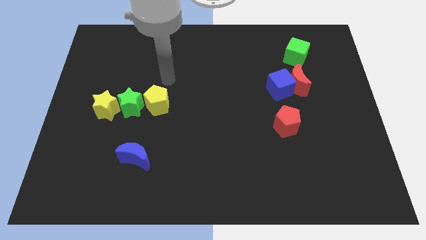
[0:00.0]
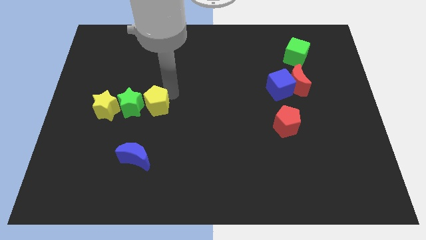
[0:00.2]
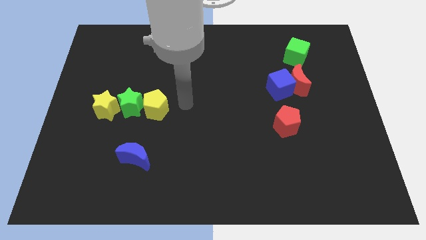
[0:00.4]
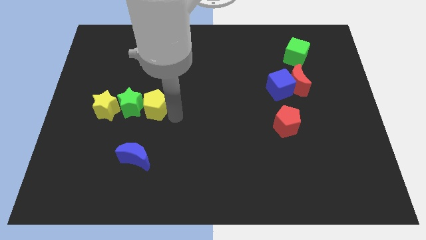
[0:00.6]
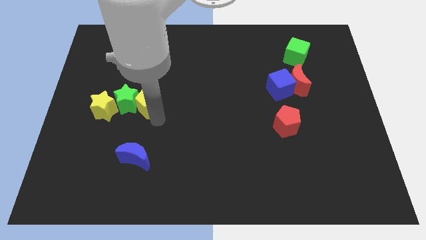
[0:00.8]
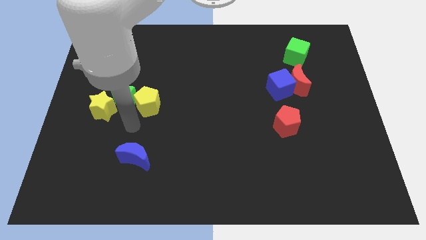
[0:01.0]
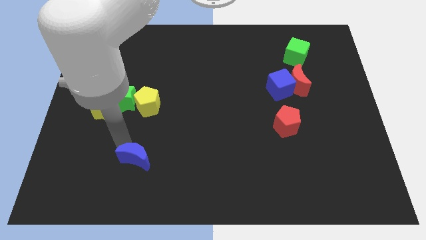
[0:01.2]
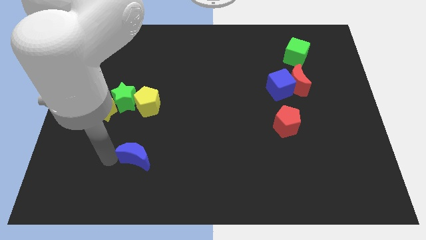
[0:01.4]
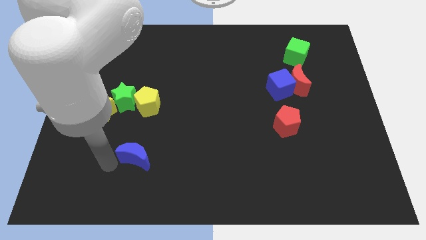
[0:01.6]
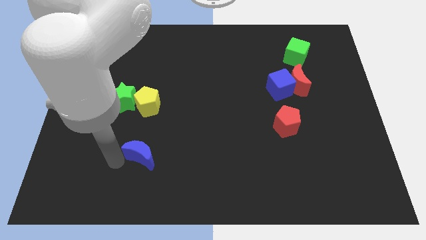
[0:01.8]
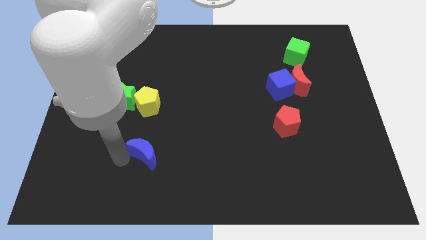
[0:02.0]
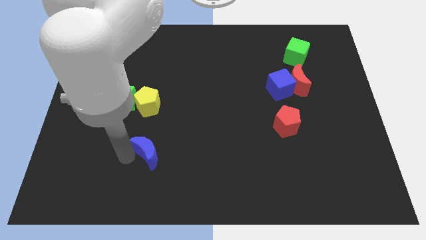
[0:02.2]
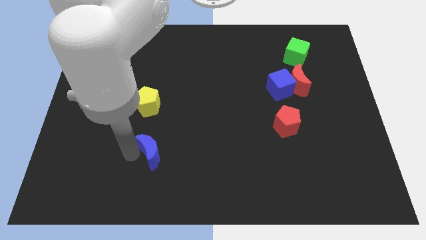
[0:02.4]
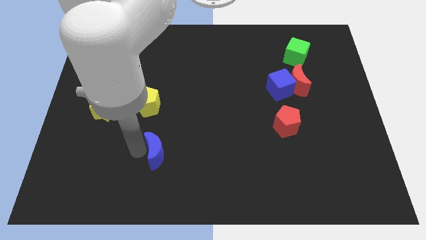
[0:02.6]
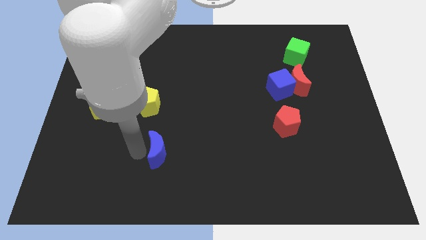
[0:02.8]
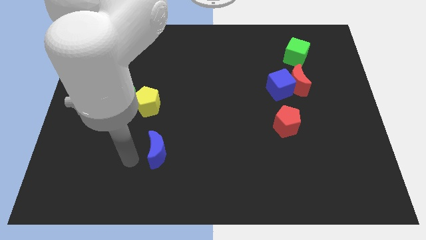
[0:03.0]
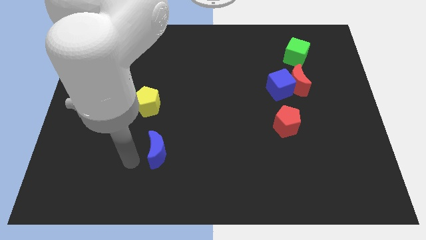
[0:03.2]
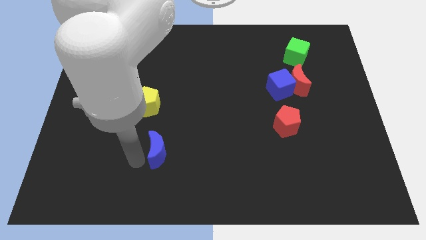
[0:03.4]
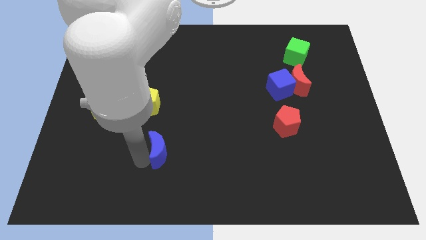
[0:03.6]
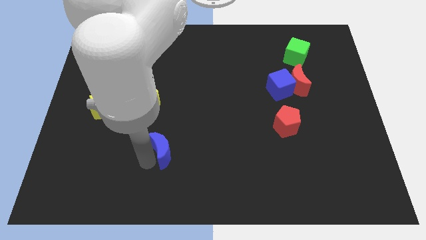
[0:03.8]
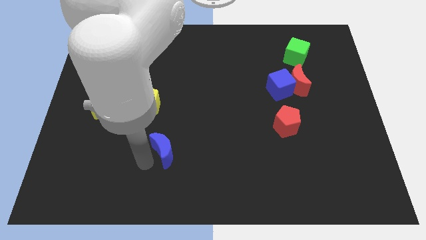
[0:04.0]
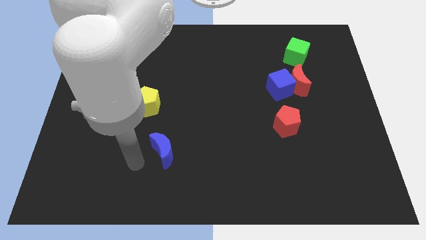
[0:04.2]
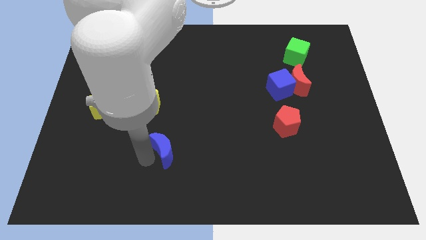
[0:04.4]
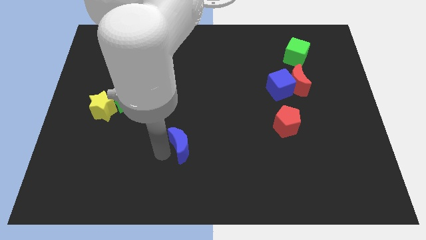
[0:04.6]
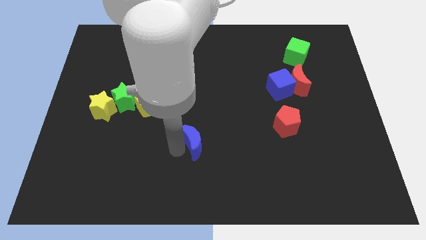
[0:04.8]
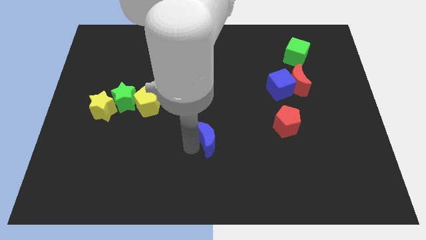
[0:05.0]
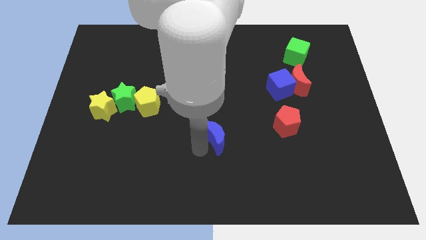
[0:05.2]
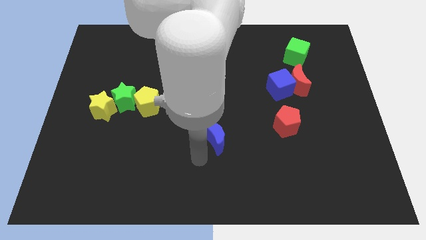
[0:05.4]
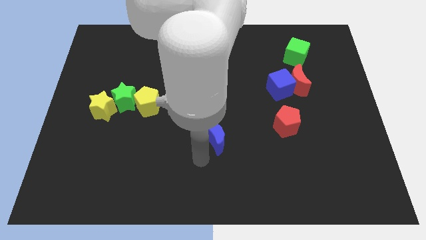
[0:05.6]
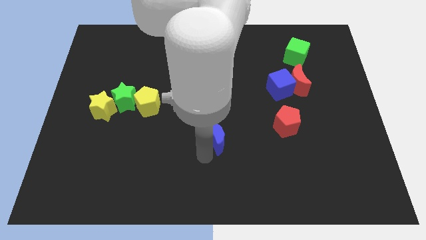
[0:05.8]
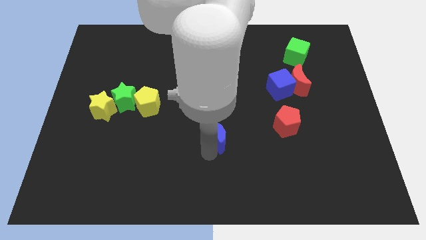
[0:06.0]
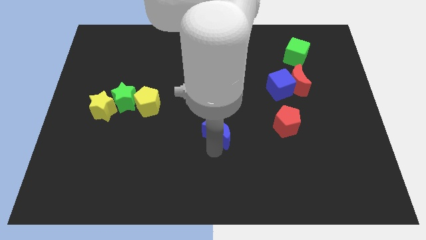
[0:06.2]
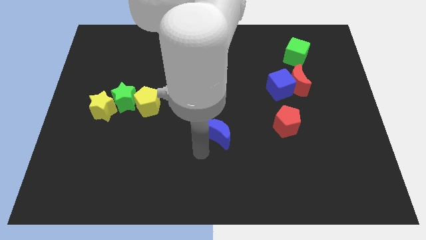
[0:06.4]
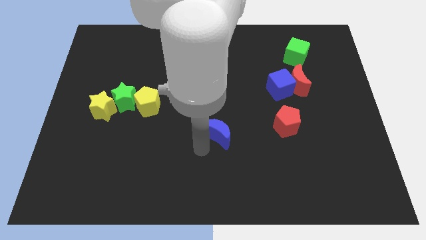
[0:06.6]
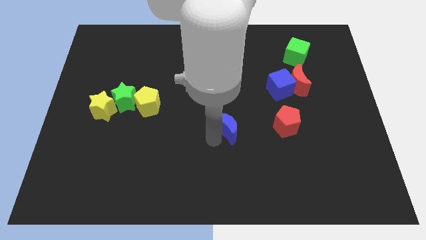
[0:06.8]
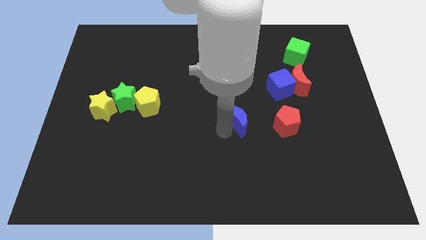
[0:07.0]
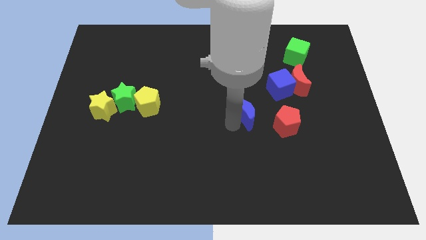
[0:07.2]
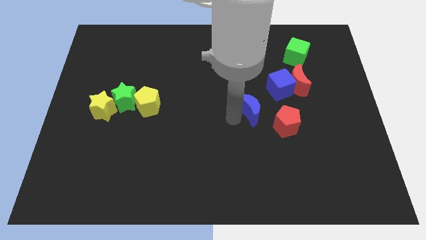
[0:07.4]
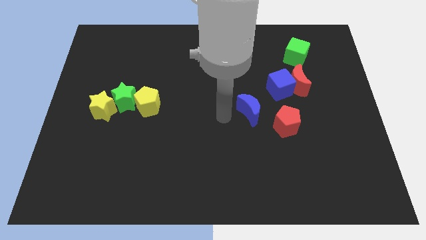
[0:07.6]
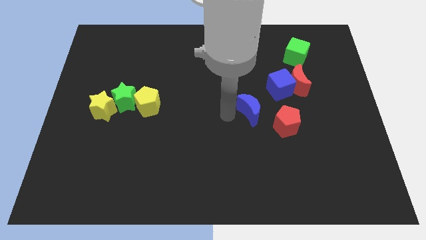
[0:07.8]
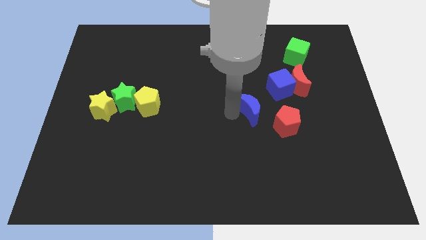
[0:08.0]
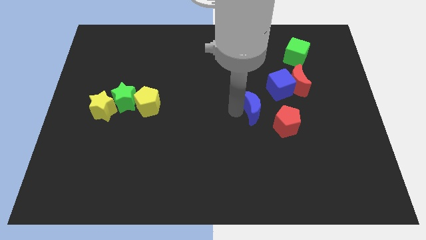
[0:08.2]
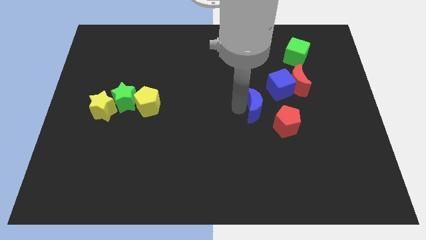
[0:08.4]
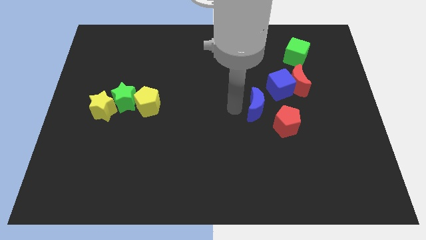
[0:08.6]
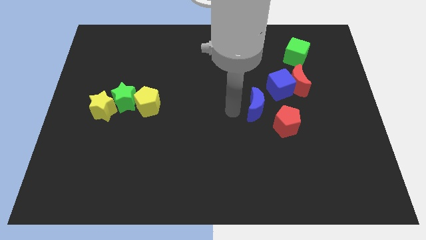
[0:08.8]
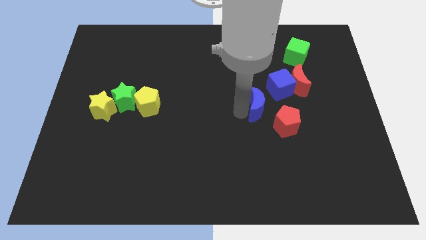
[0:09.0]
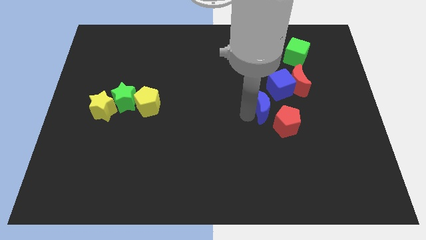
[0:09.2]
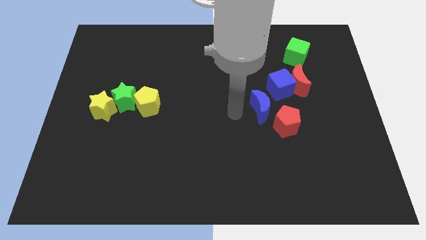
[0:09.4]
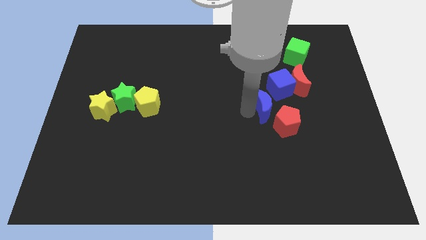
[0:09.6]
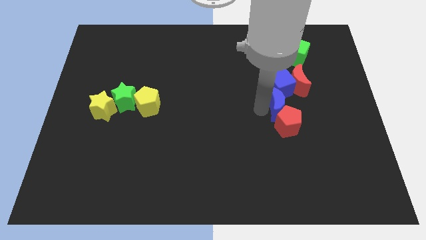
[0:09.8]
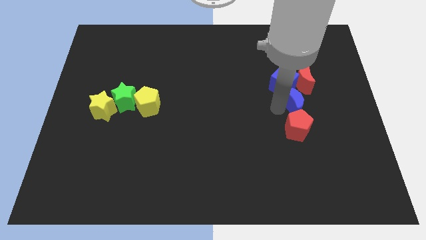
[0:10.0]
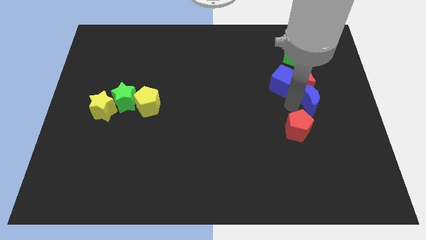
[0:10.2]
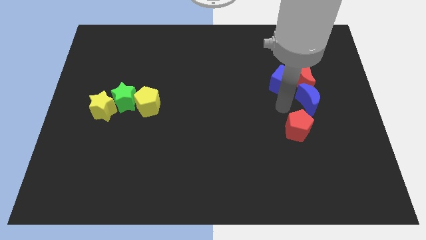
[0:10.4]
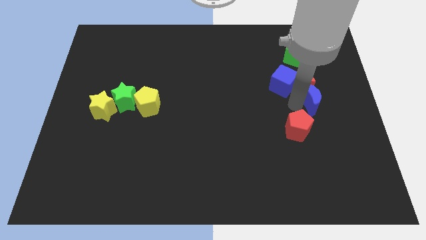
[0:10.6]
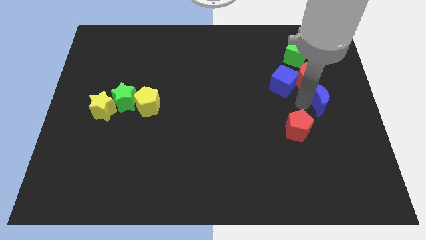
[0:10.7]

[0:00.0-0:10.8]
push the blue moon to the right side

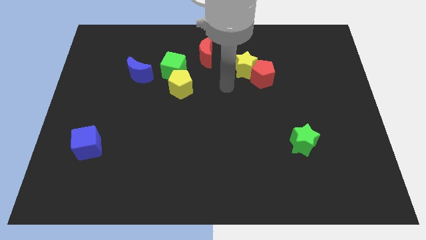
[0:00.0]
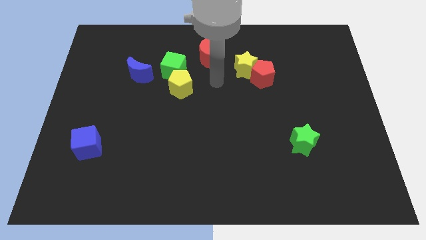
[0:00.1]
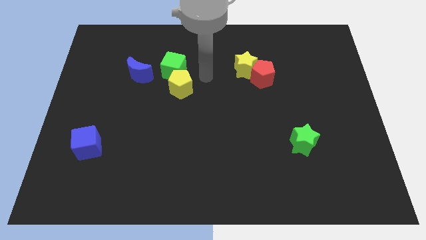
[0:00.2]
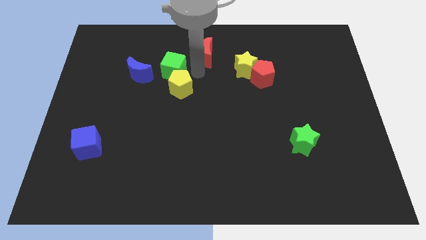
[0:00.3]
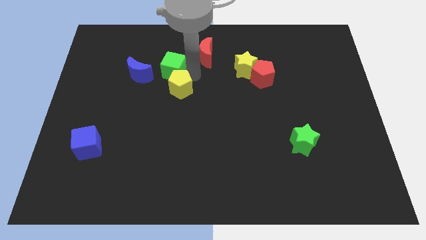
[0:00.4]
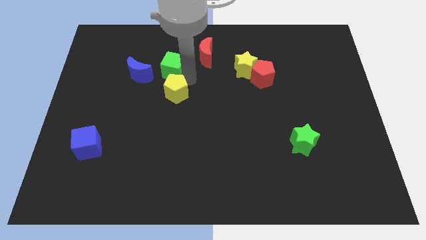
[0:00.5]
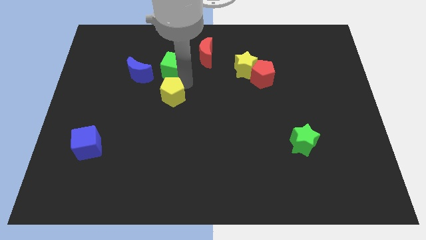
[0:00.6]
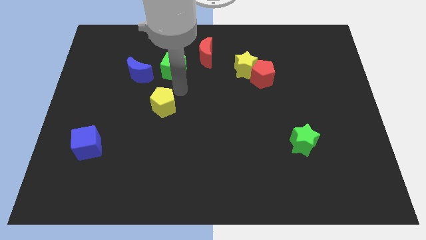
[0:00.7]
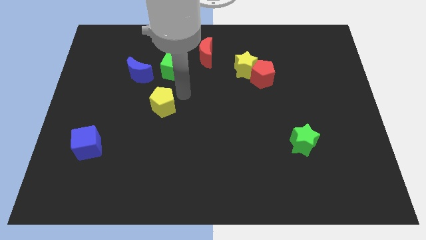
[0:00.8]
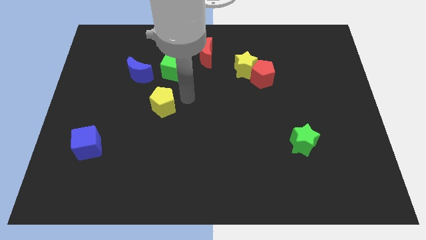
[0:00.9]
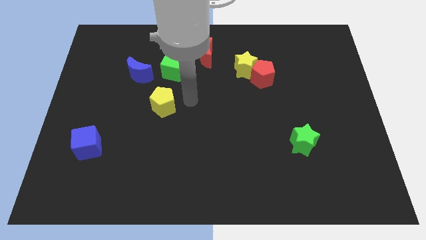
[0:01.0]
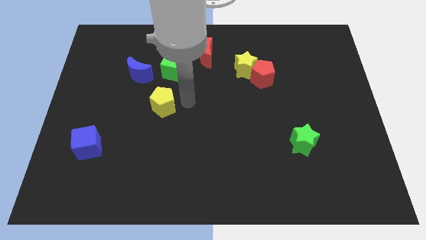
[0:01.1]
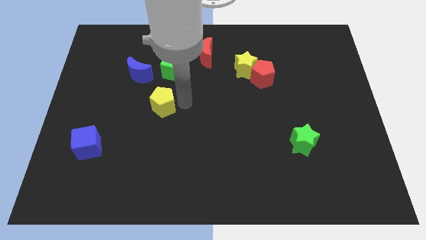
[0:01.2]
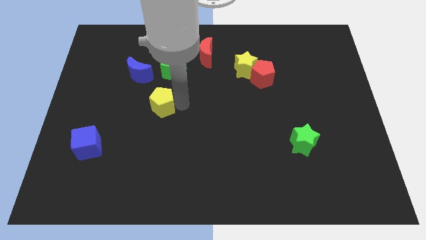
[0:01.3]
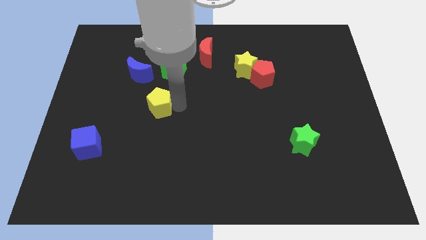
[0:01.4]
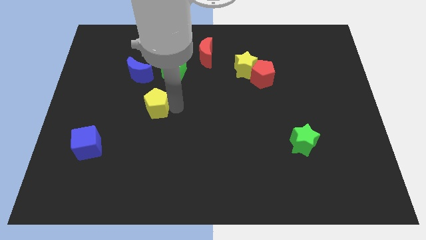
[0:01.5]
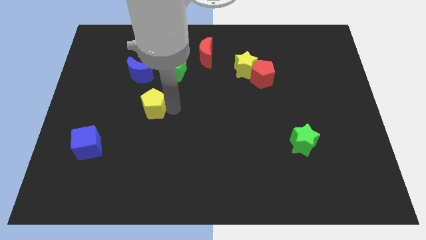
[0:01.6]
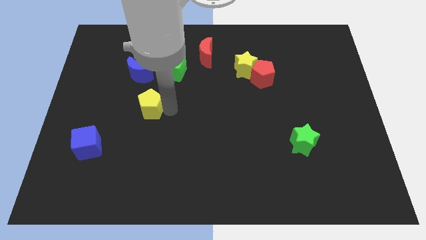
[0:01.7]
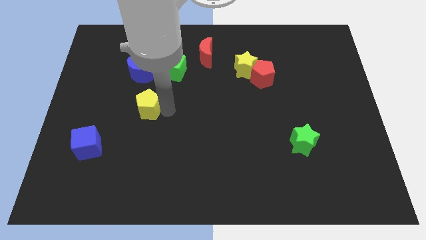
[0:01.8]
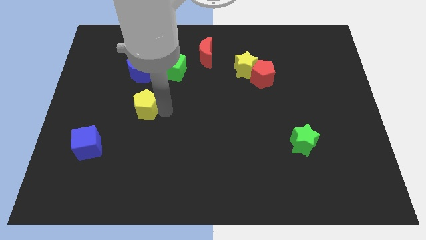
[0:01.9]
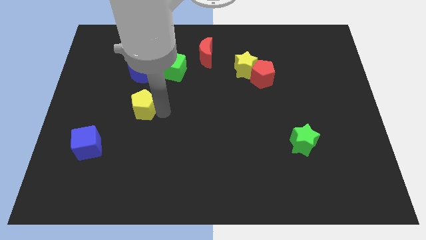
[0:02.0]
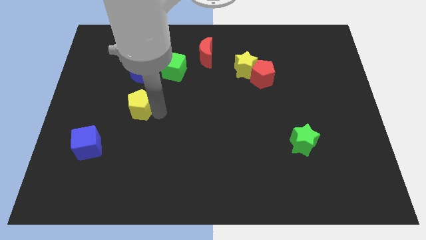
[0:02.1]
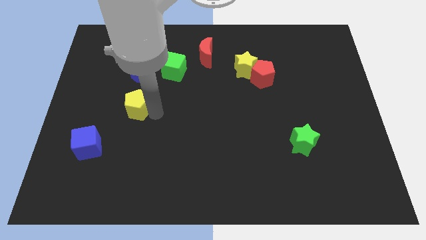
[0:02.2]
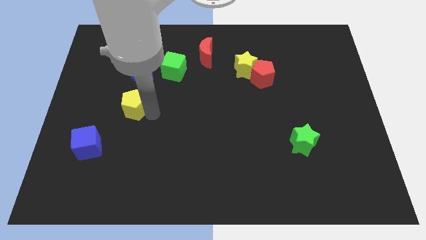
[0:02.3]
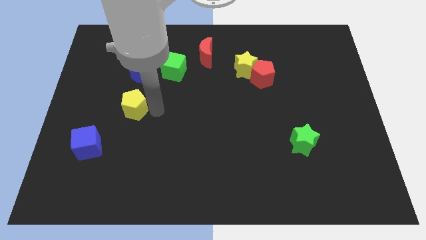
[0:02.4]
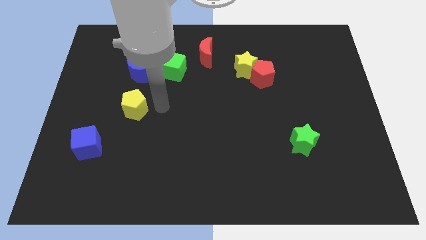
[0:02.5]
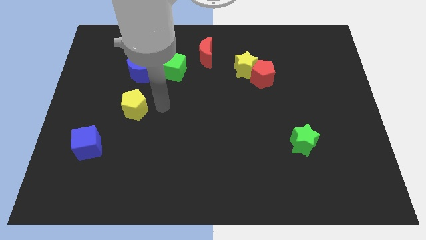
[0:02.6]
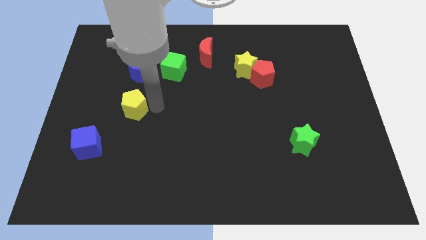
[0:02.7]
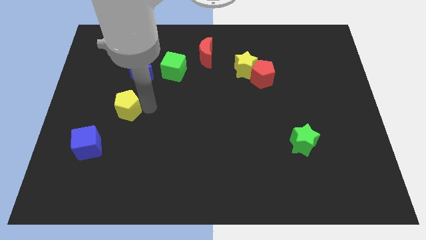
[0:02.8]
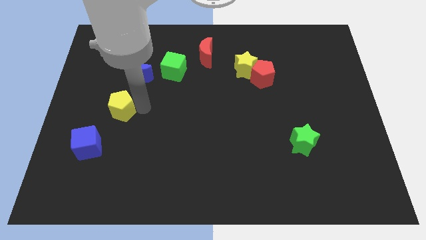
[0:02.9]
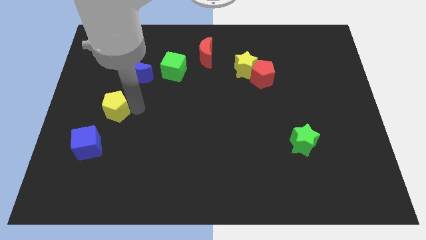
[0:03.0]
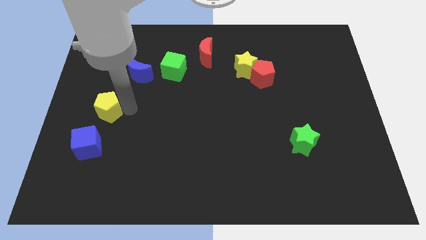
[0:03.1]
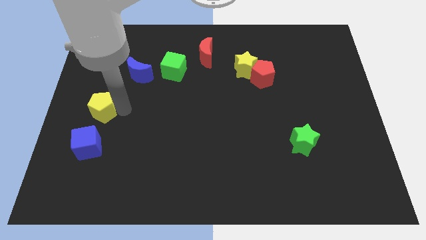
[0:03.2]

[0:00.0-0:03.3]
slide the yellow pentagon to the left side of the board
